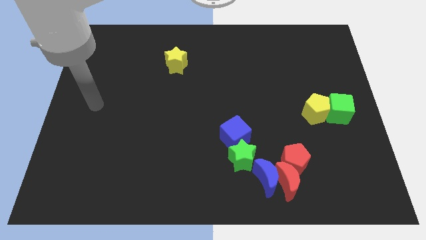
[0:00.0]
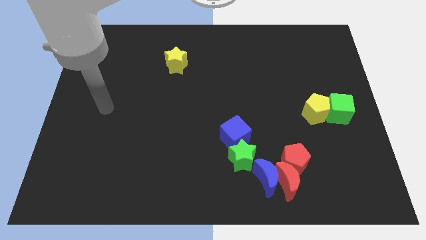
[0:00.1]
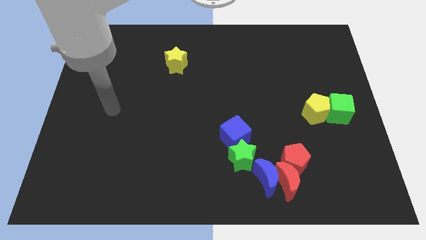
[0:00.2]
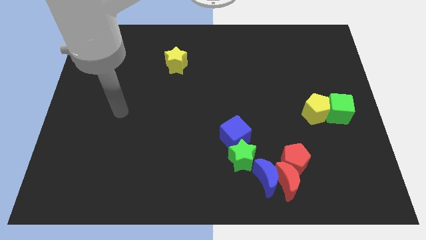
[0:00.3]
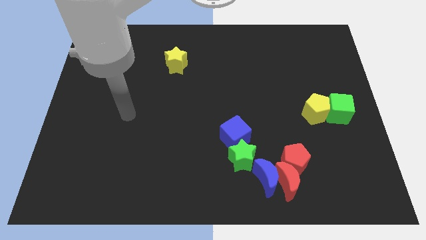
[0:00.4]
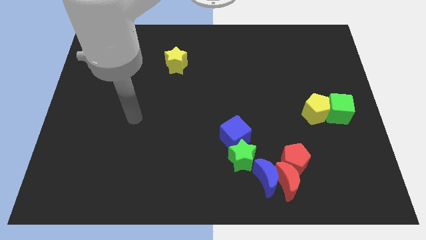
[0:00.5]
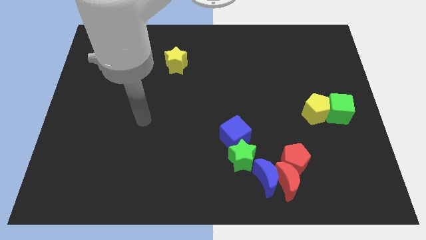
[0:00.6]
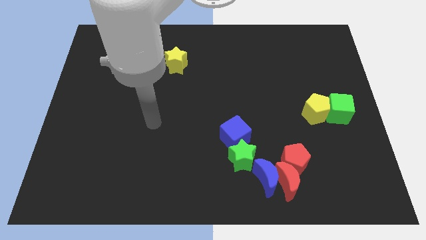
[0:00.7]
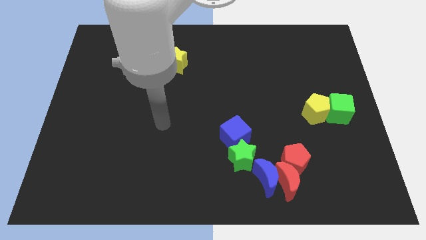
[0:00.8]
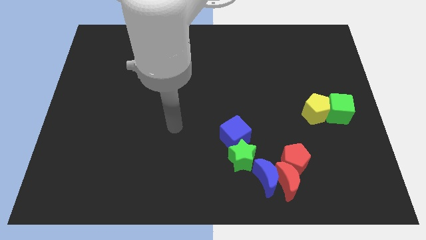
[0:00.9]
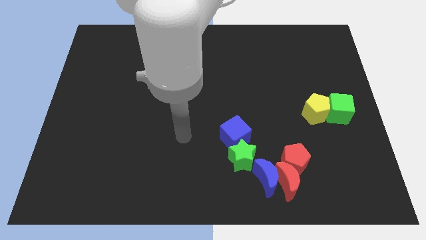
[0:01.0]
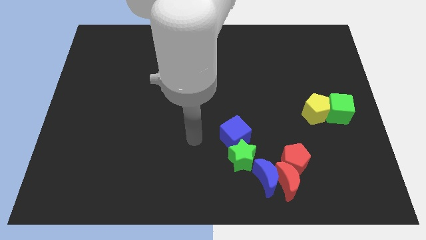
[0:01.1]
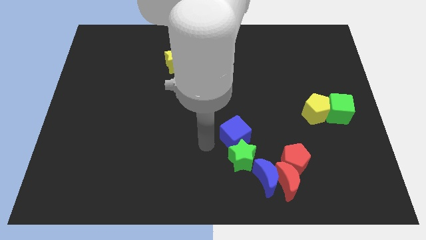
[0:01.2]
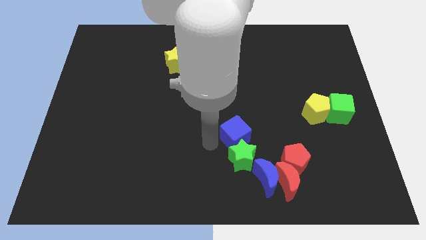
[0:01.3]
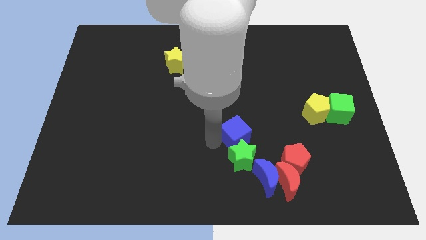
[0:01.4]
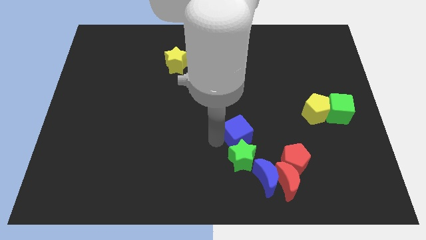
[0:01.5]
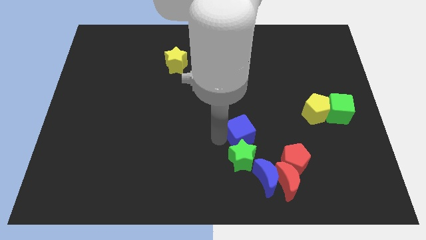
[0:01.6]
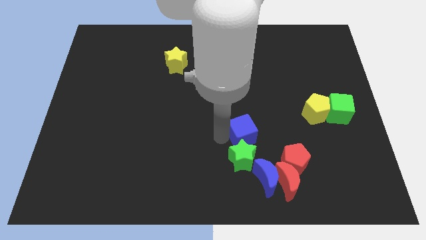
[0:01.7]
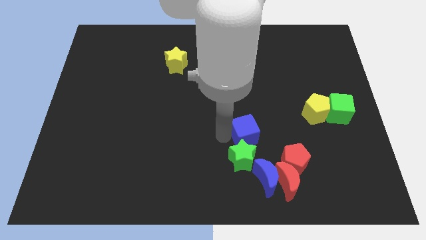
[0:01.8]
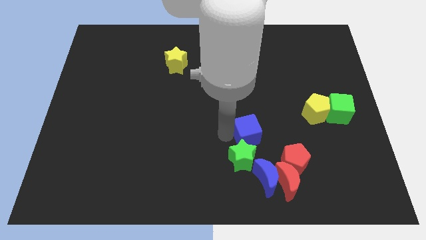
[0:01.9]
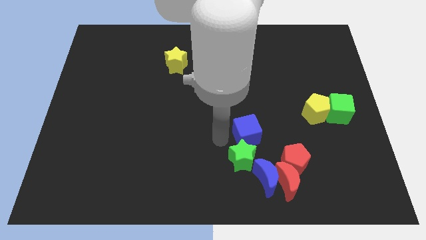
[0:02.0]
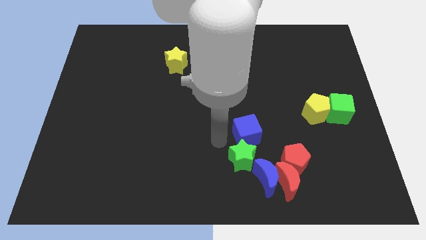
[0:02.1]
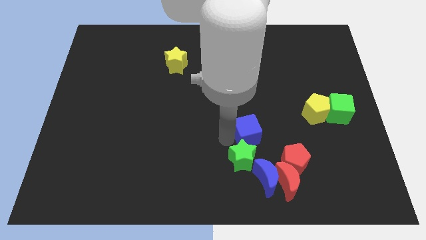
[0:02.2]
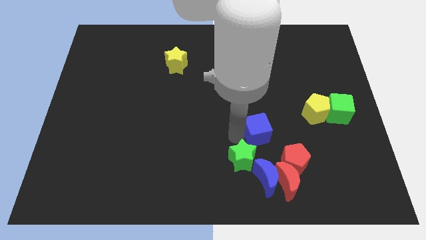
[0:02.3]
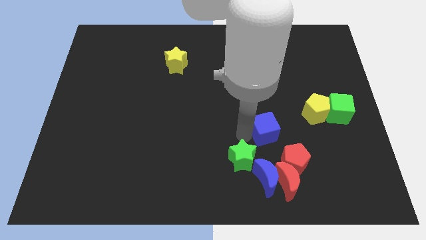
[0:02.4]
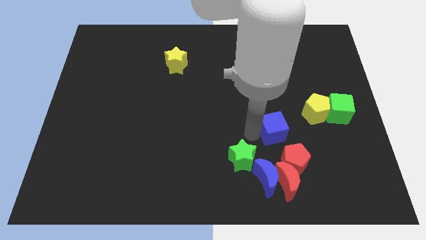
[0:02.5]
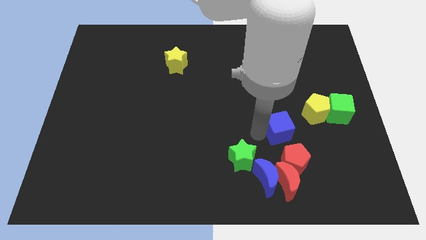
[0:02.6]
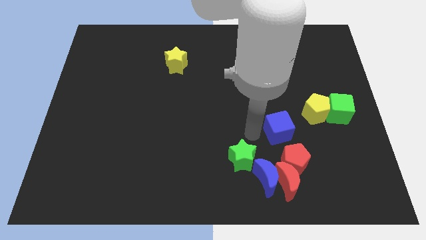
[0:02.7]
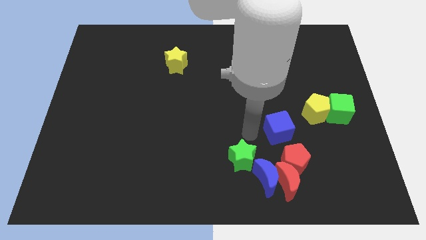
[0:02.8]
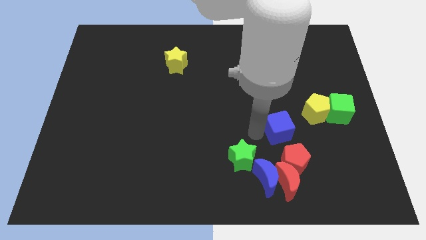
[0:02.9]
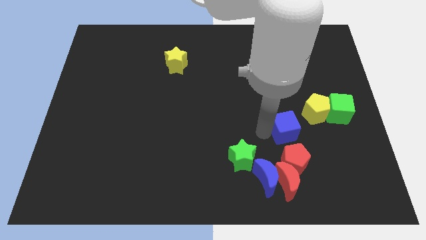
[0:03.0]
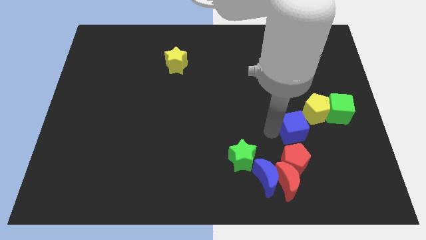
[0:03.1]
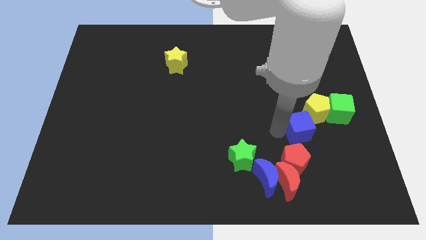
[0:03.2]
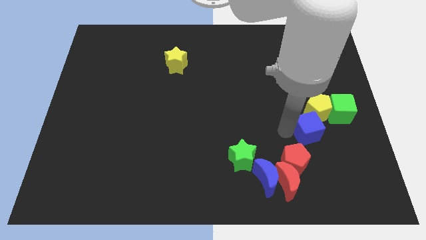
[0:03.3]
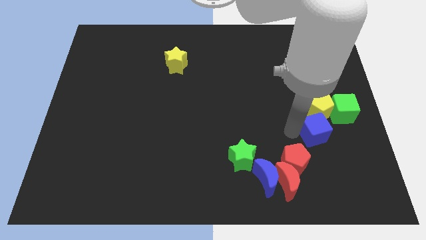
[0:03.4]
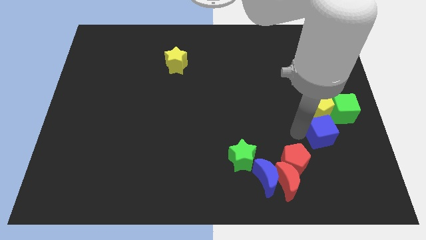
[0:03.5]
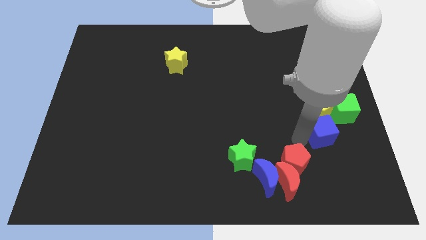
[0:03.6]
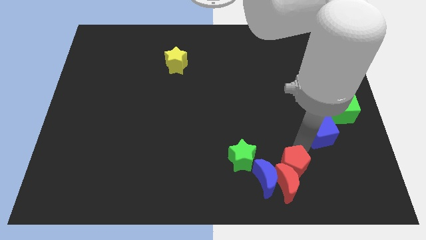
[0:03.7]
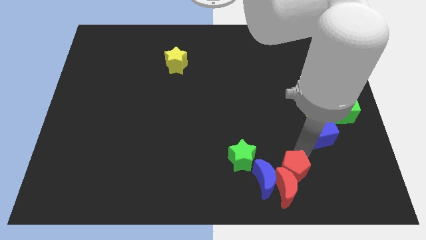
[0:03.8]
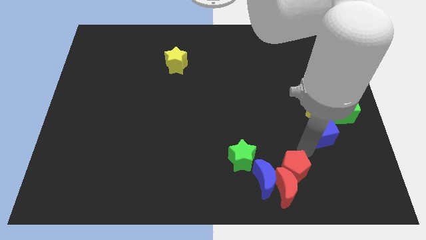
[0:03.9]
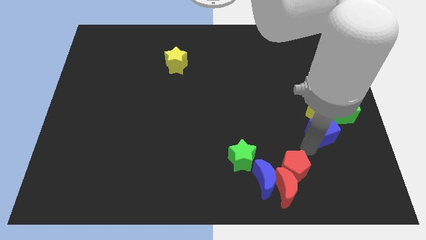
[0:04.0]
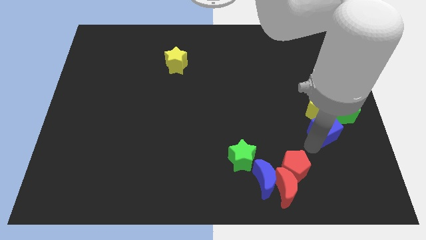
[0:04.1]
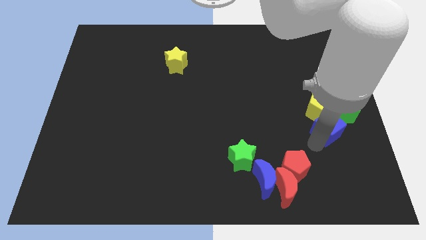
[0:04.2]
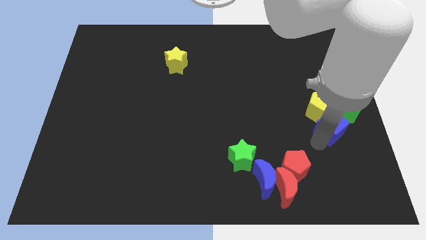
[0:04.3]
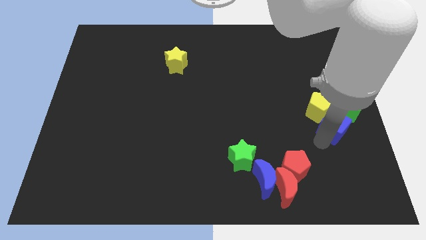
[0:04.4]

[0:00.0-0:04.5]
move the blue cube close to the green cube

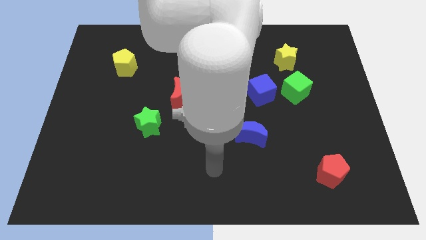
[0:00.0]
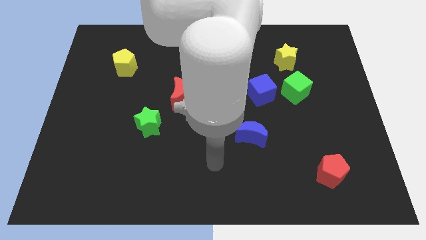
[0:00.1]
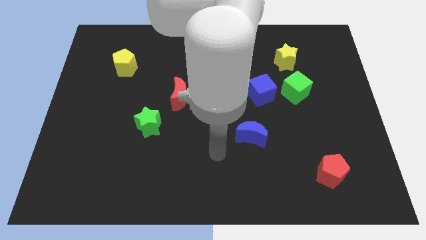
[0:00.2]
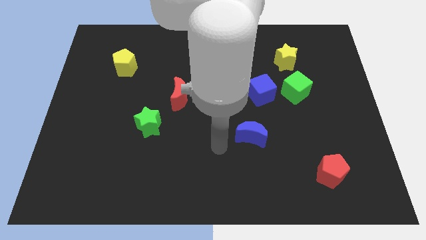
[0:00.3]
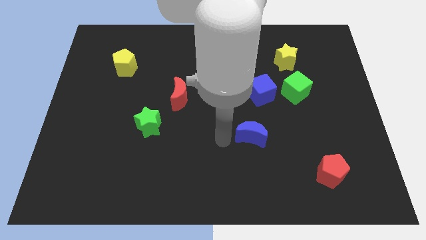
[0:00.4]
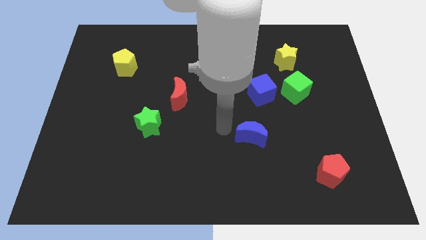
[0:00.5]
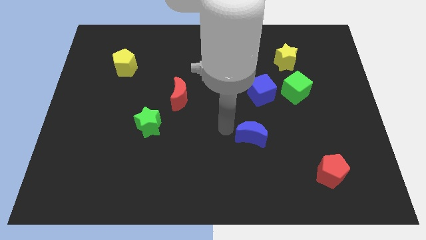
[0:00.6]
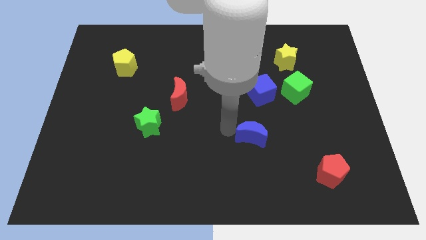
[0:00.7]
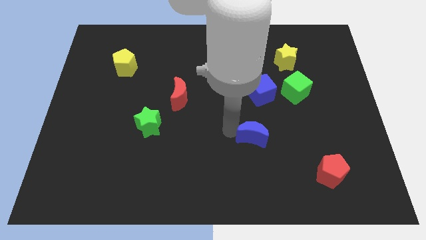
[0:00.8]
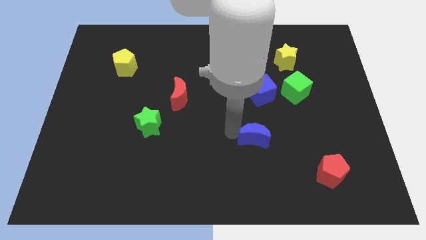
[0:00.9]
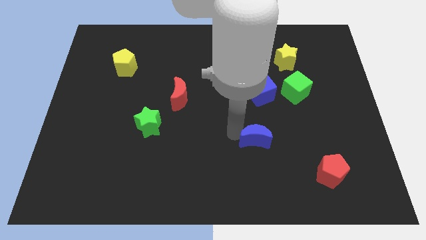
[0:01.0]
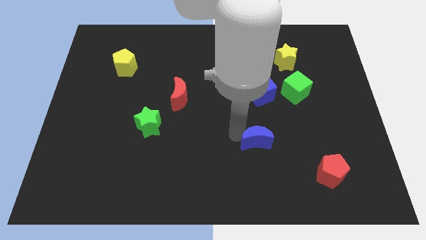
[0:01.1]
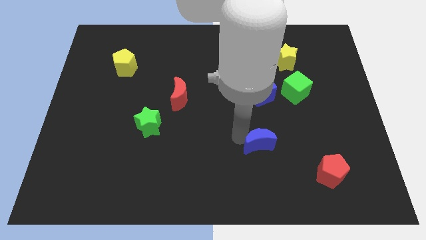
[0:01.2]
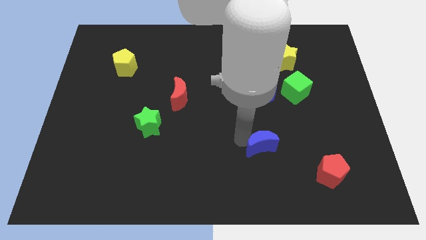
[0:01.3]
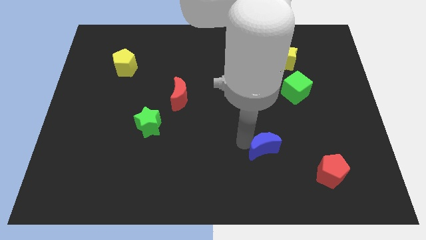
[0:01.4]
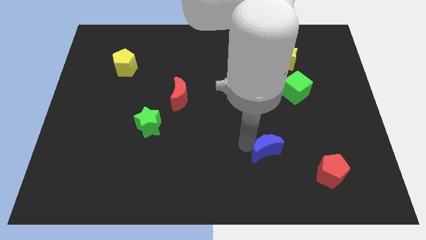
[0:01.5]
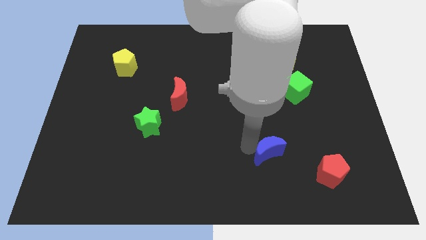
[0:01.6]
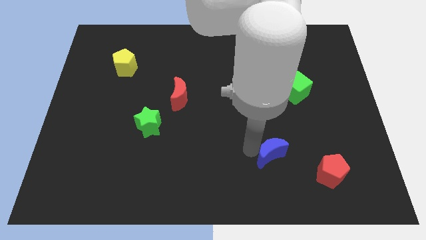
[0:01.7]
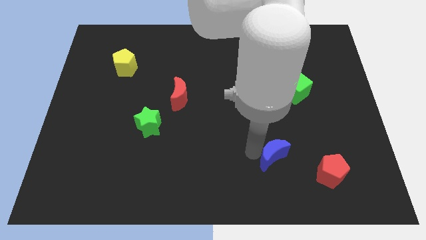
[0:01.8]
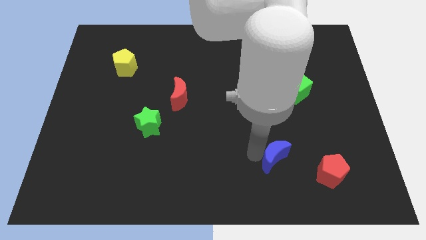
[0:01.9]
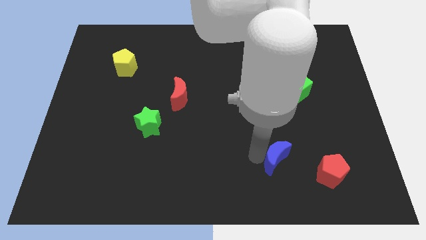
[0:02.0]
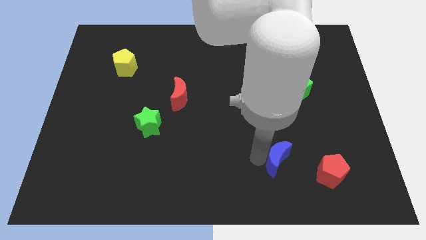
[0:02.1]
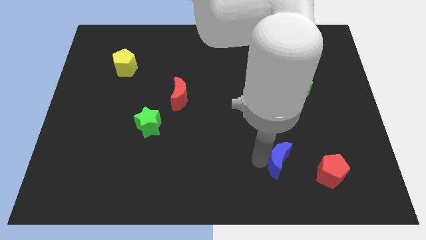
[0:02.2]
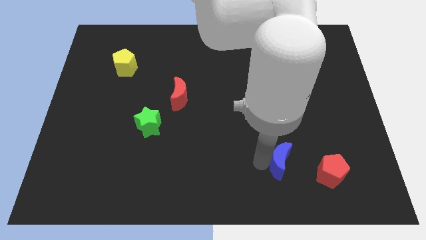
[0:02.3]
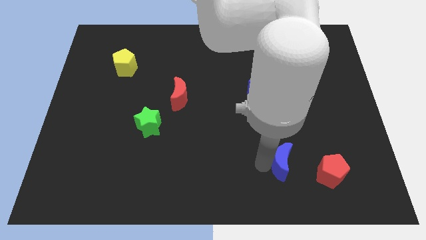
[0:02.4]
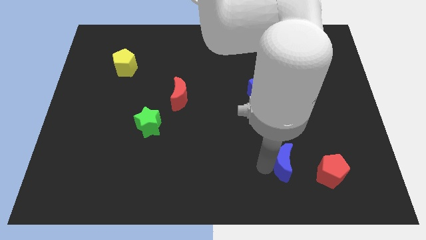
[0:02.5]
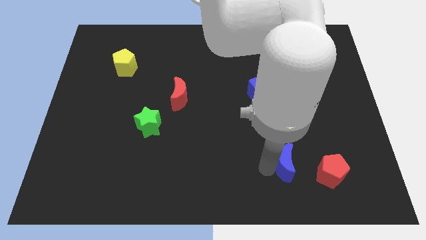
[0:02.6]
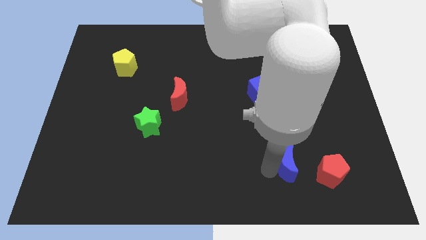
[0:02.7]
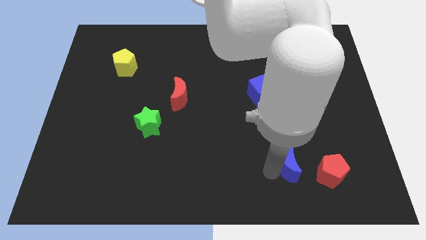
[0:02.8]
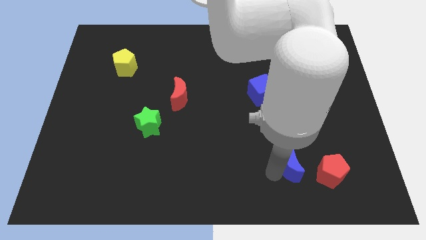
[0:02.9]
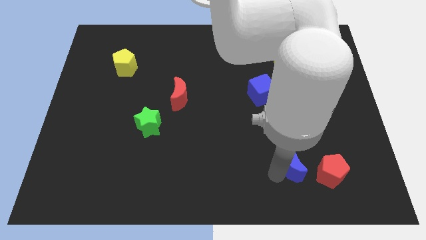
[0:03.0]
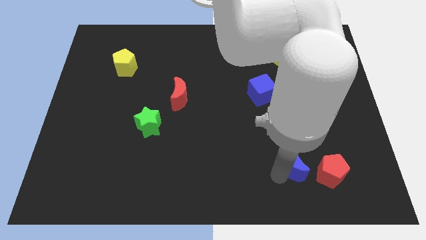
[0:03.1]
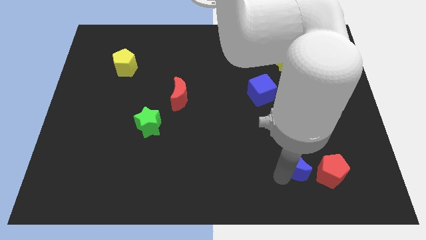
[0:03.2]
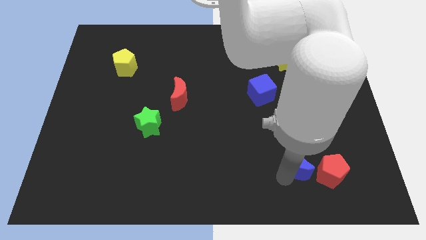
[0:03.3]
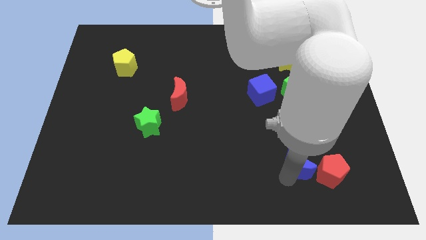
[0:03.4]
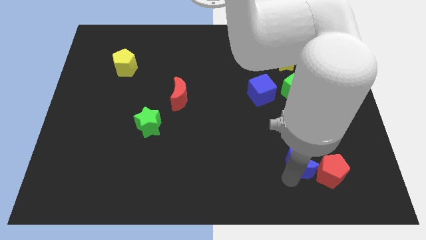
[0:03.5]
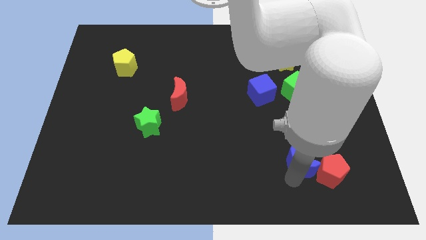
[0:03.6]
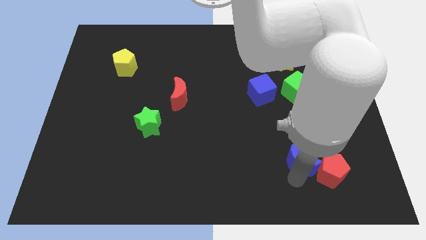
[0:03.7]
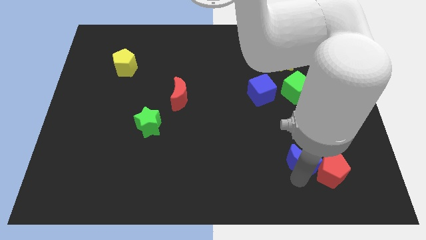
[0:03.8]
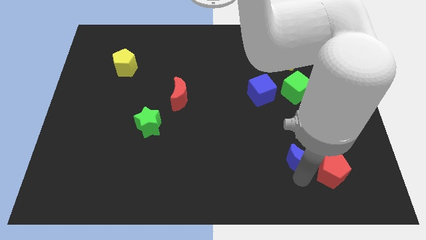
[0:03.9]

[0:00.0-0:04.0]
move the blue moon close to the red pentagon
